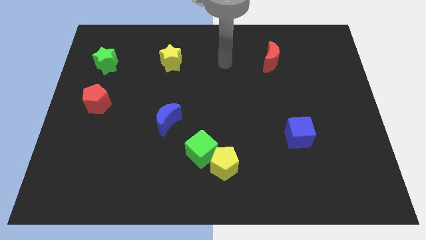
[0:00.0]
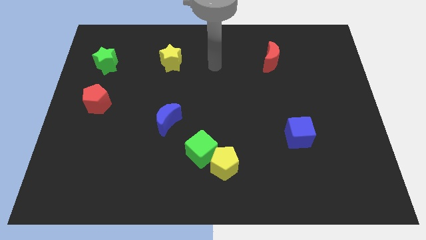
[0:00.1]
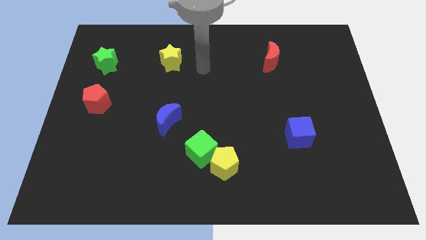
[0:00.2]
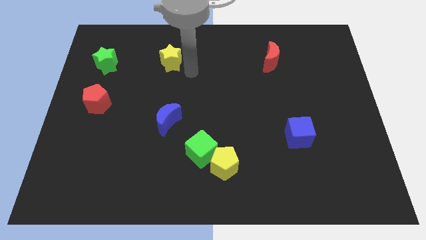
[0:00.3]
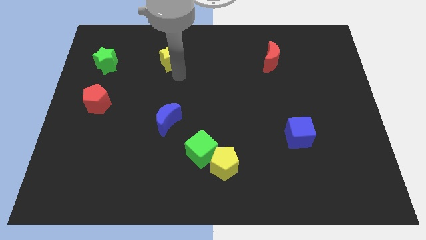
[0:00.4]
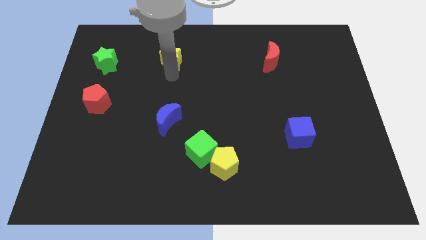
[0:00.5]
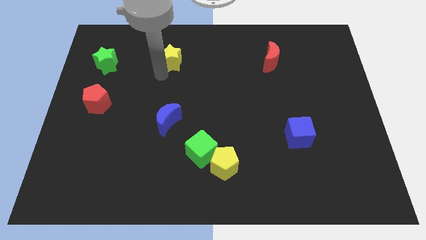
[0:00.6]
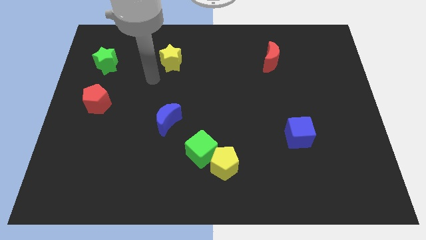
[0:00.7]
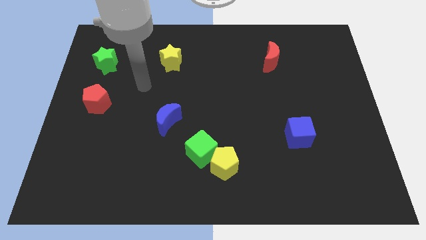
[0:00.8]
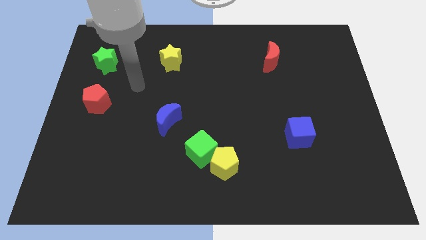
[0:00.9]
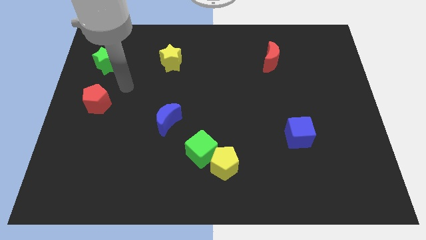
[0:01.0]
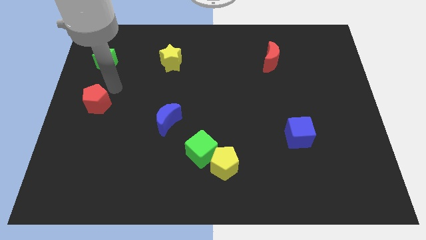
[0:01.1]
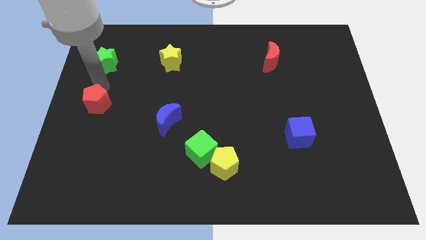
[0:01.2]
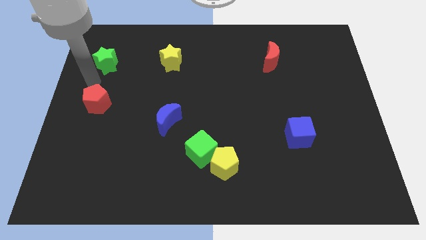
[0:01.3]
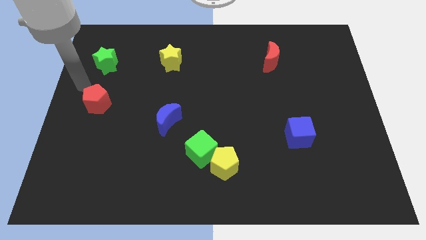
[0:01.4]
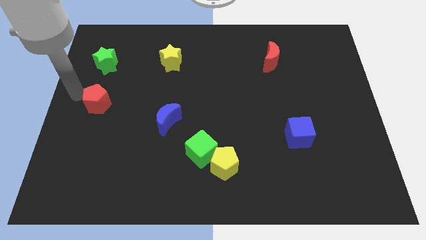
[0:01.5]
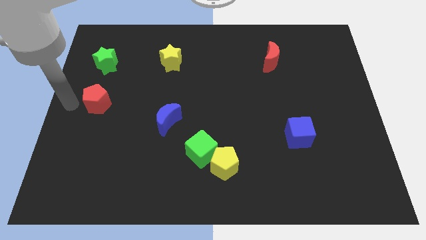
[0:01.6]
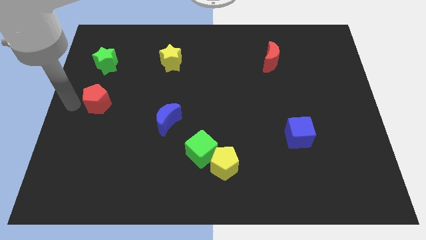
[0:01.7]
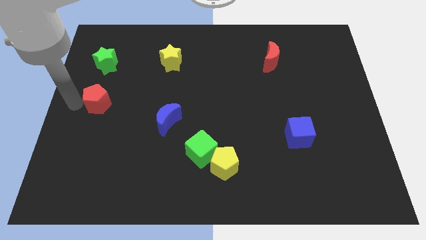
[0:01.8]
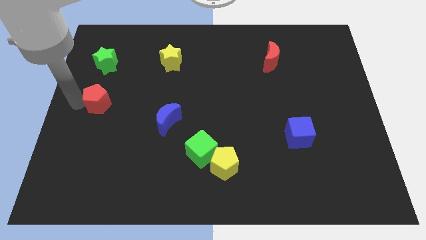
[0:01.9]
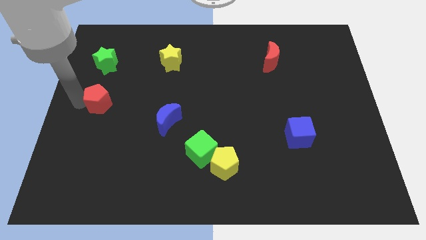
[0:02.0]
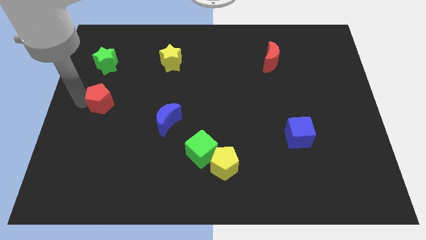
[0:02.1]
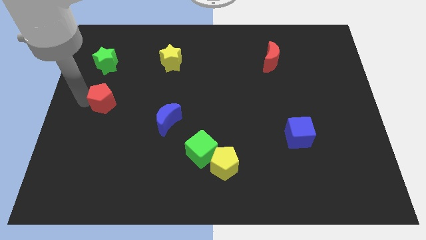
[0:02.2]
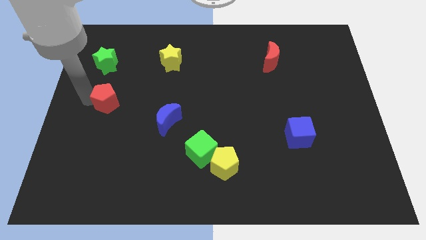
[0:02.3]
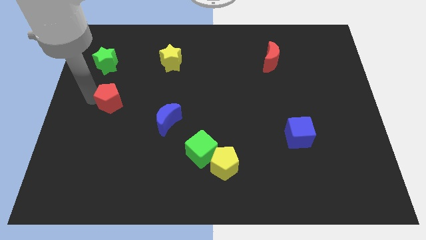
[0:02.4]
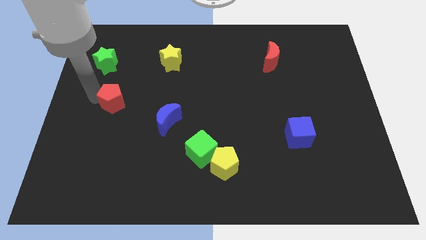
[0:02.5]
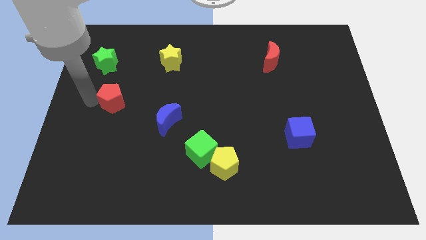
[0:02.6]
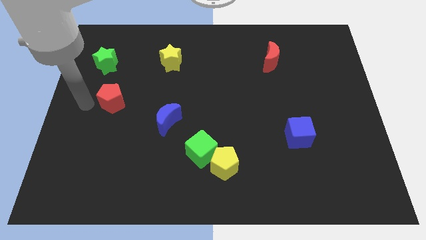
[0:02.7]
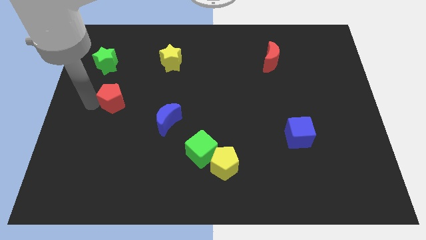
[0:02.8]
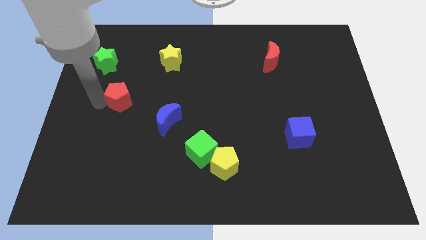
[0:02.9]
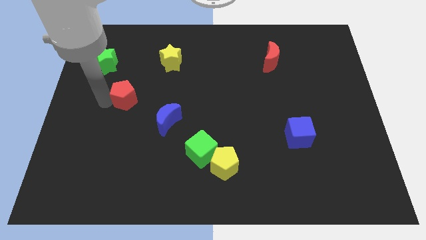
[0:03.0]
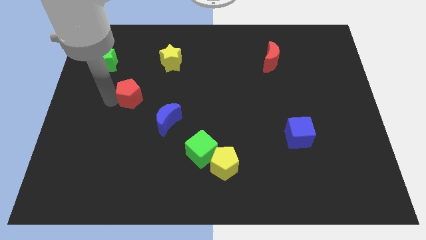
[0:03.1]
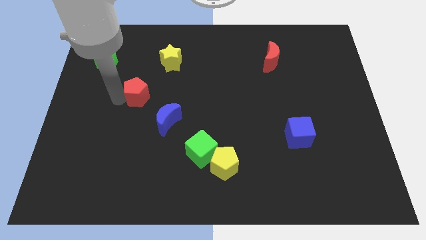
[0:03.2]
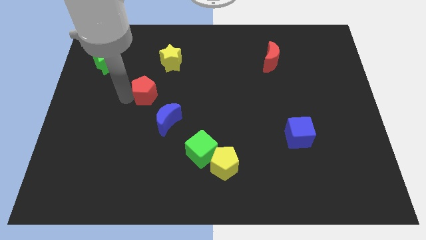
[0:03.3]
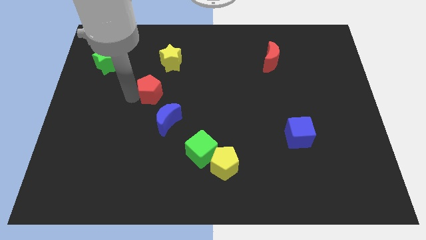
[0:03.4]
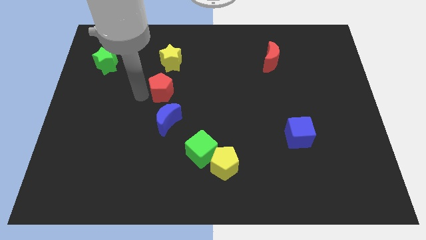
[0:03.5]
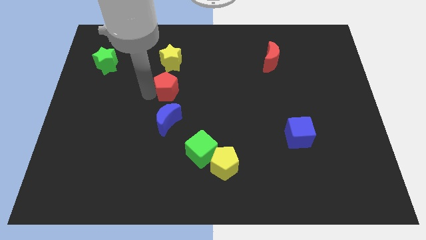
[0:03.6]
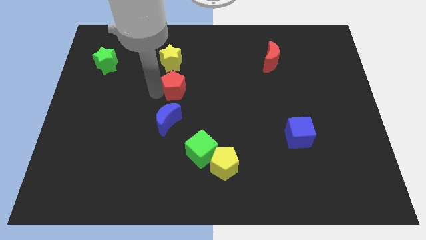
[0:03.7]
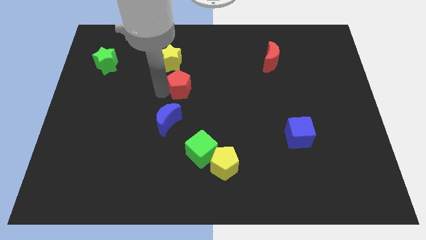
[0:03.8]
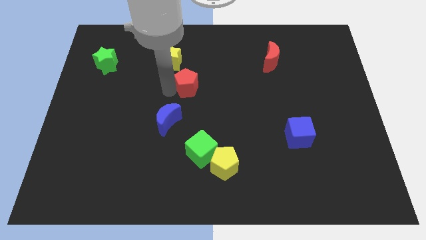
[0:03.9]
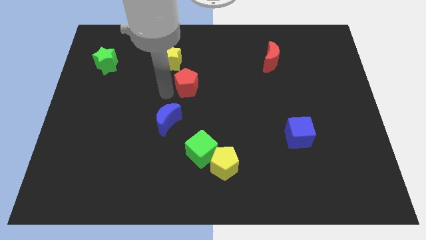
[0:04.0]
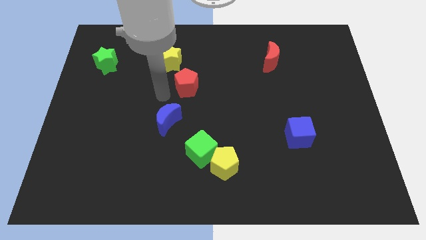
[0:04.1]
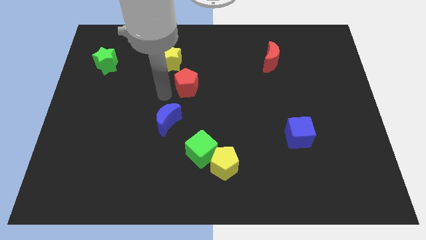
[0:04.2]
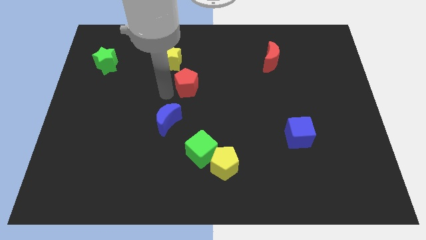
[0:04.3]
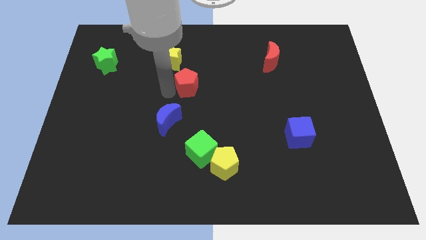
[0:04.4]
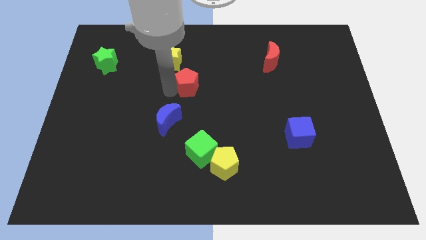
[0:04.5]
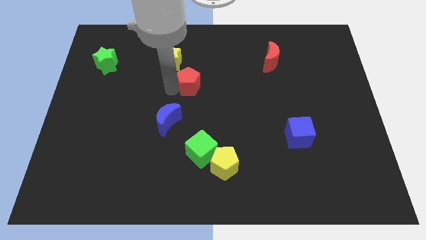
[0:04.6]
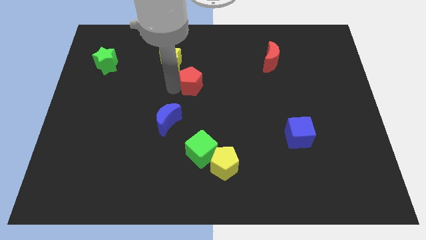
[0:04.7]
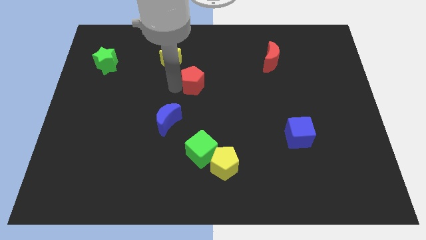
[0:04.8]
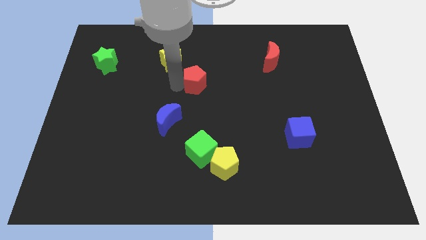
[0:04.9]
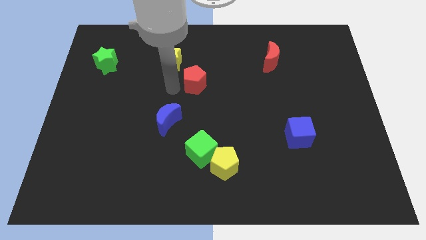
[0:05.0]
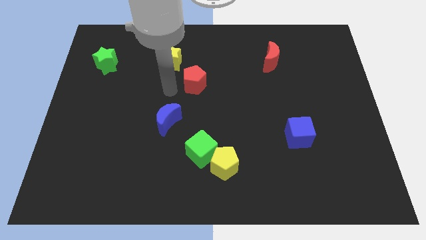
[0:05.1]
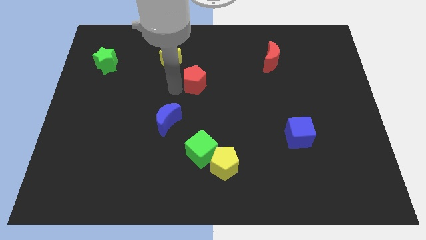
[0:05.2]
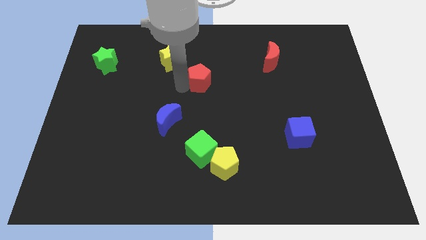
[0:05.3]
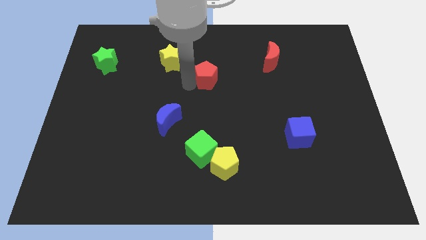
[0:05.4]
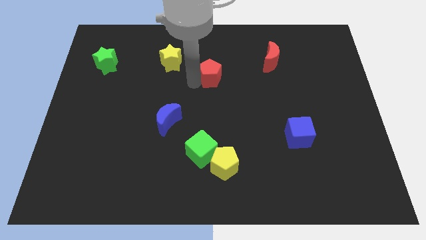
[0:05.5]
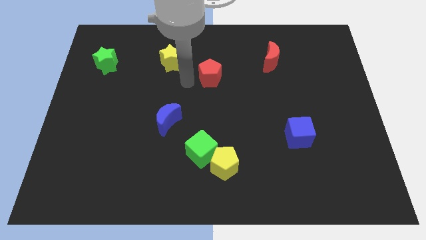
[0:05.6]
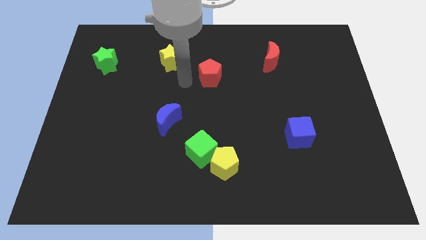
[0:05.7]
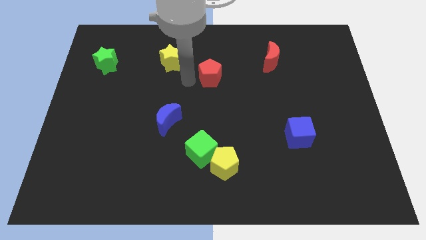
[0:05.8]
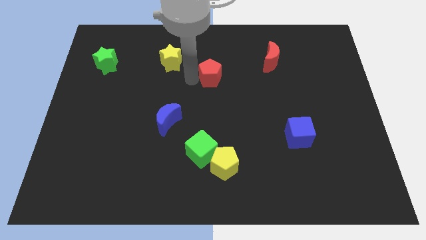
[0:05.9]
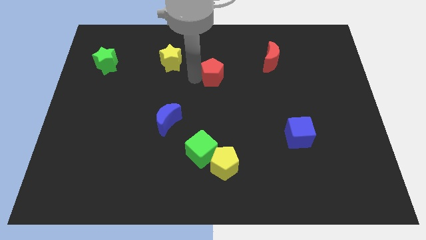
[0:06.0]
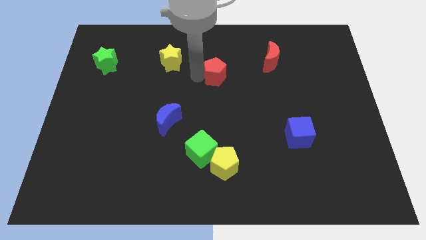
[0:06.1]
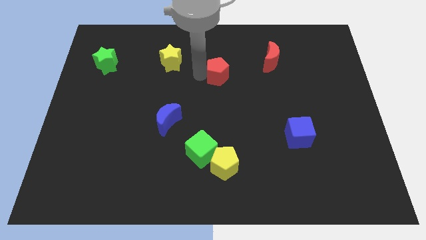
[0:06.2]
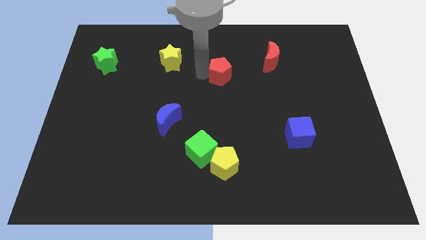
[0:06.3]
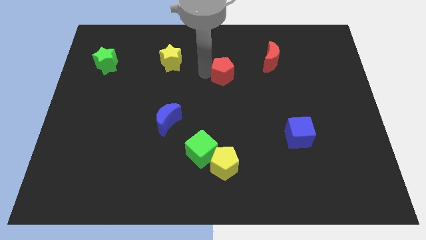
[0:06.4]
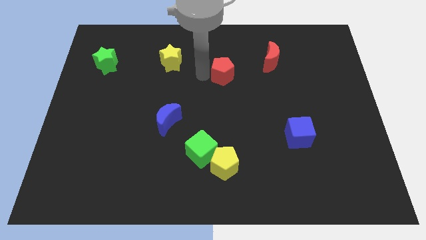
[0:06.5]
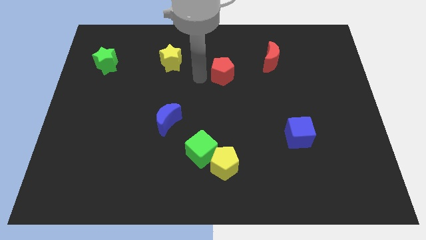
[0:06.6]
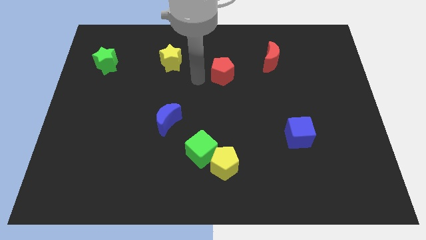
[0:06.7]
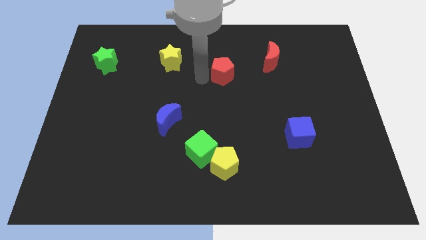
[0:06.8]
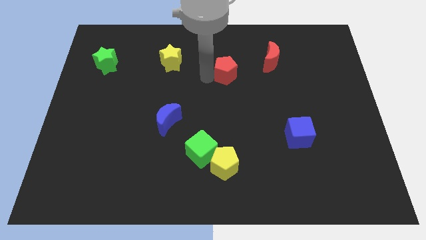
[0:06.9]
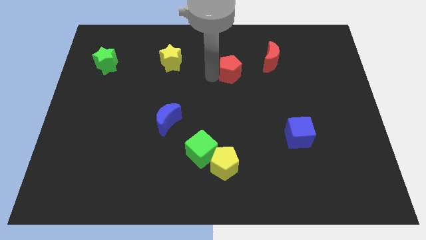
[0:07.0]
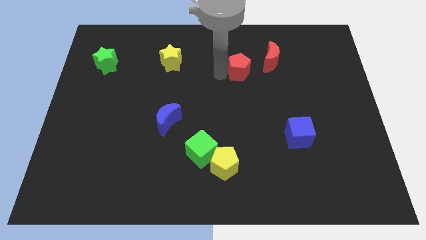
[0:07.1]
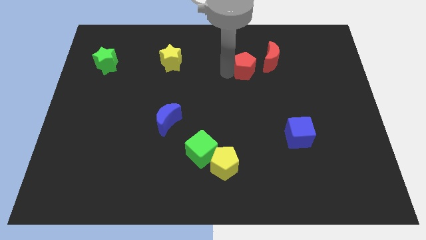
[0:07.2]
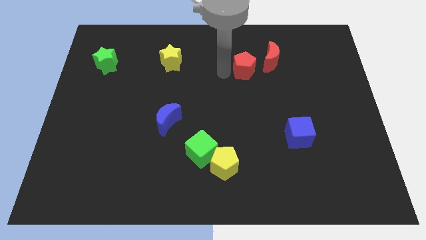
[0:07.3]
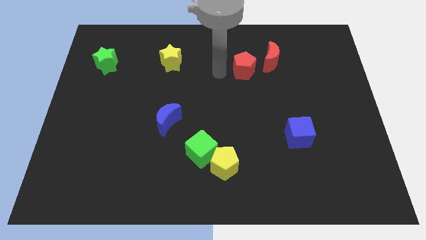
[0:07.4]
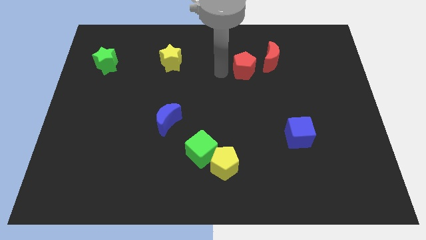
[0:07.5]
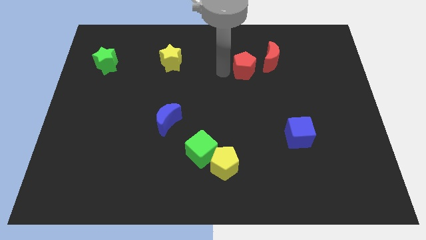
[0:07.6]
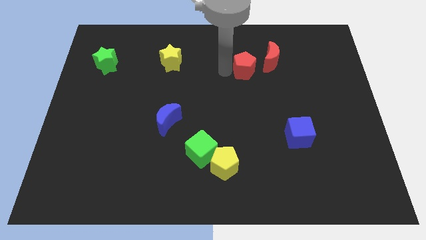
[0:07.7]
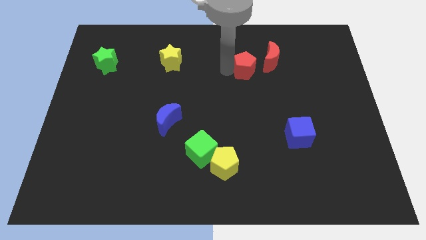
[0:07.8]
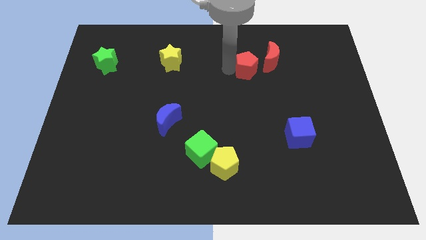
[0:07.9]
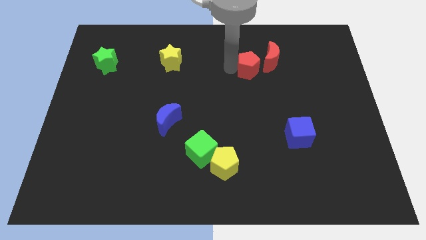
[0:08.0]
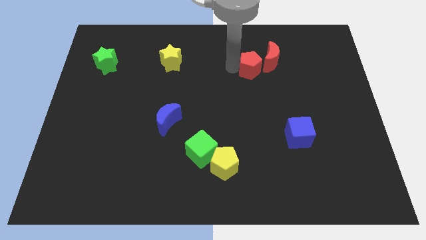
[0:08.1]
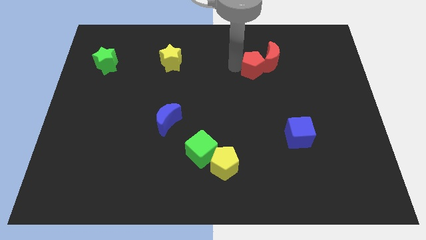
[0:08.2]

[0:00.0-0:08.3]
slide the red pentagon towards the red moon
